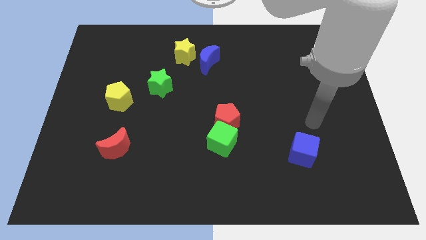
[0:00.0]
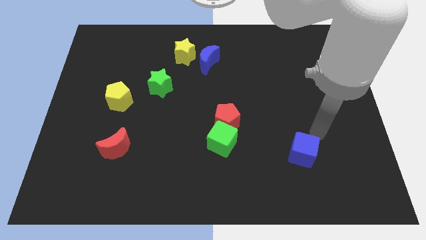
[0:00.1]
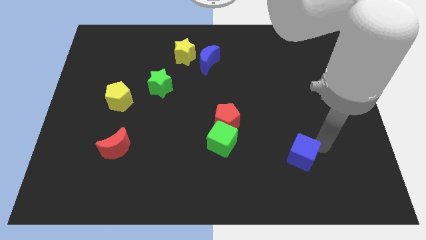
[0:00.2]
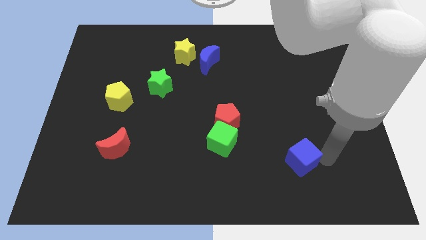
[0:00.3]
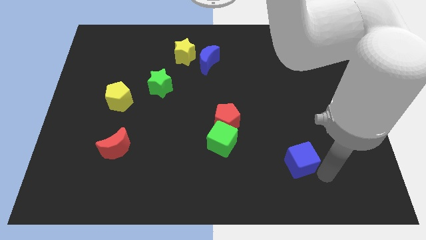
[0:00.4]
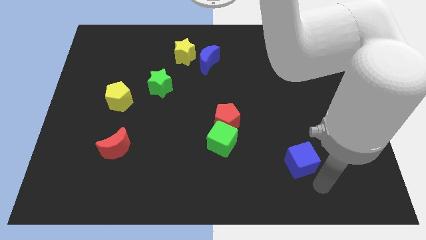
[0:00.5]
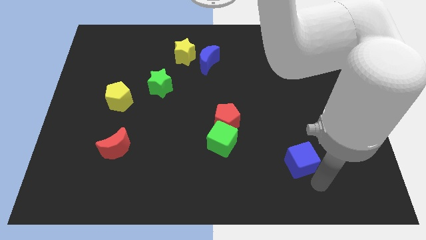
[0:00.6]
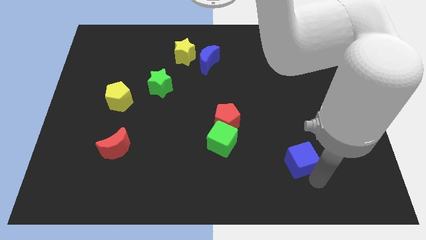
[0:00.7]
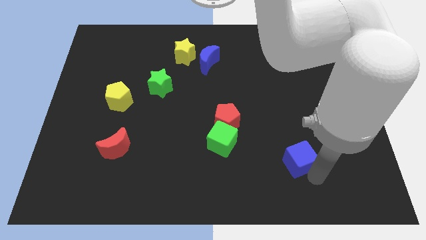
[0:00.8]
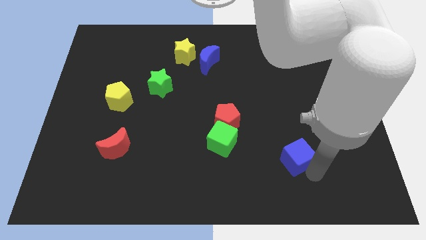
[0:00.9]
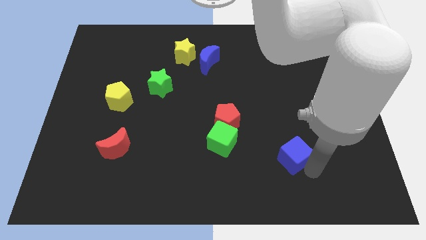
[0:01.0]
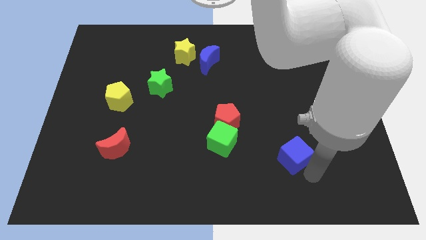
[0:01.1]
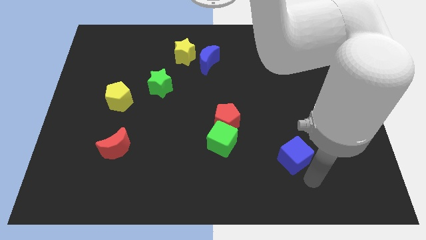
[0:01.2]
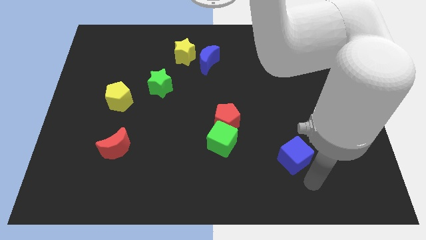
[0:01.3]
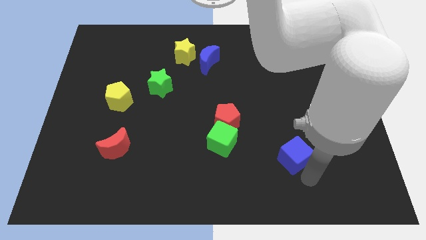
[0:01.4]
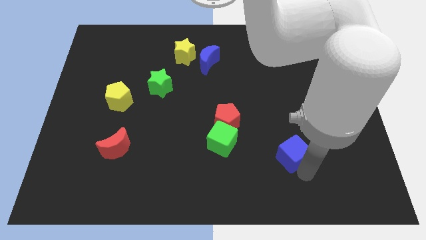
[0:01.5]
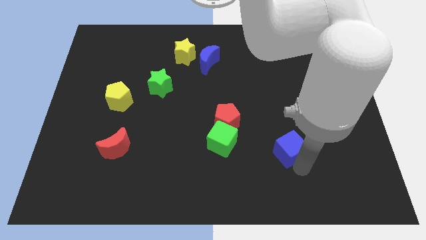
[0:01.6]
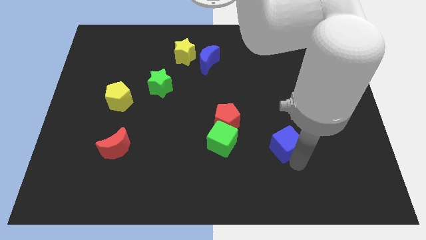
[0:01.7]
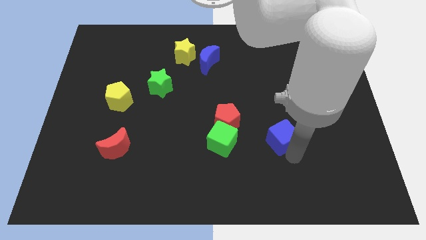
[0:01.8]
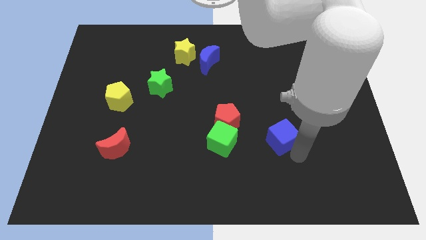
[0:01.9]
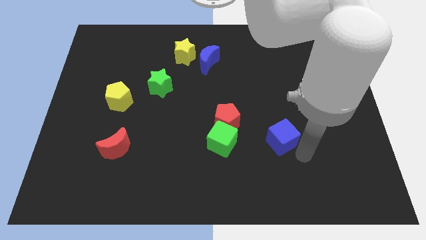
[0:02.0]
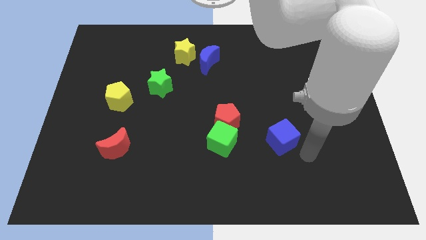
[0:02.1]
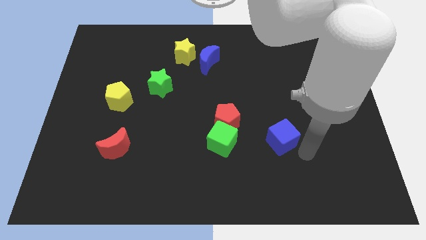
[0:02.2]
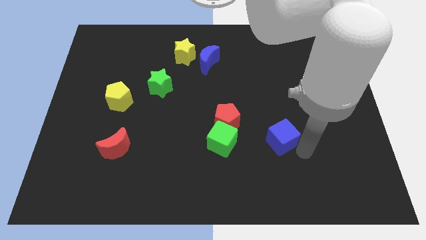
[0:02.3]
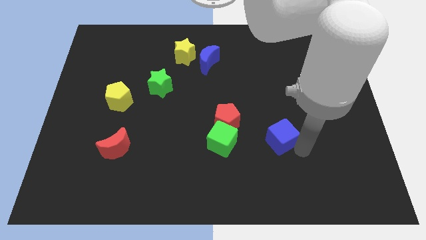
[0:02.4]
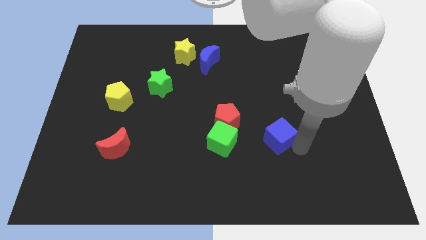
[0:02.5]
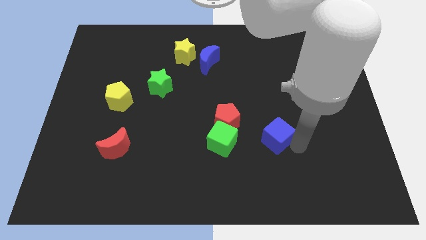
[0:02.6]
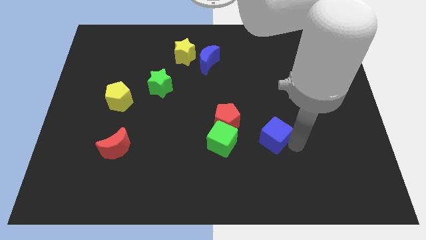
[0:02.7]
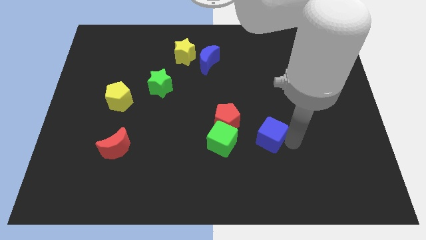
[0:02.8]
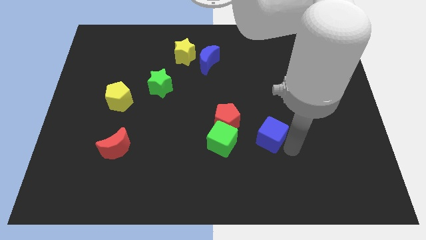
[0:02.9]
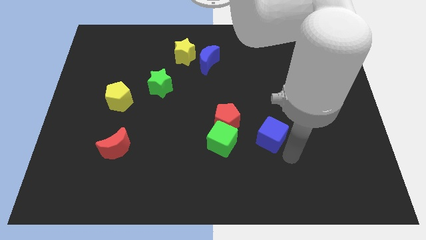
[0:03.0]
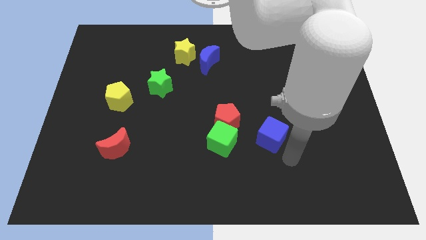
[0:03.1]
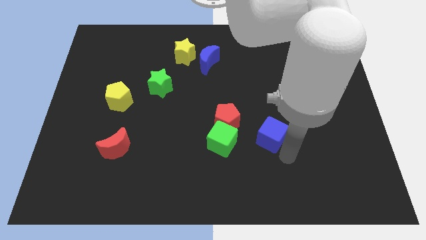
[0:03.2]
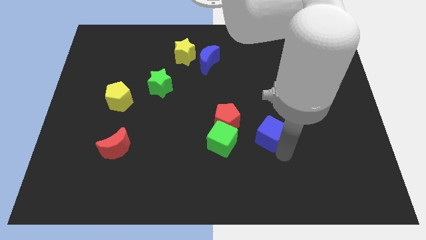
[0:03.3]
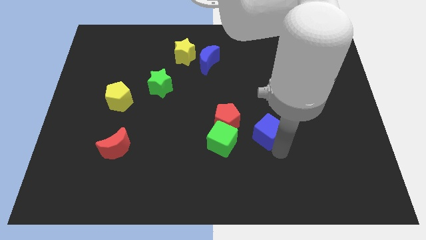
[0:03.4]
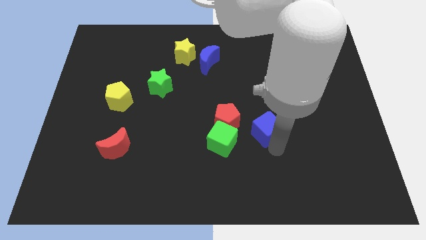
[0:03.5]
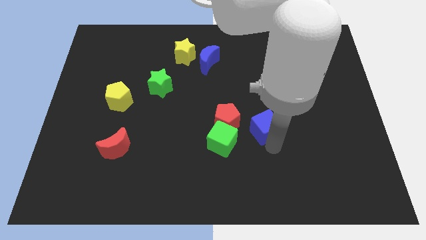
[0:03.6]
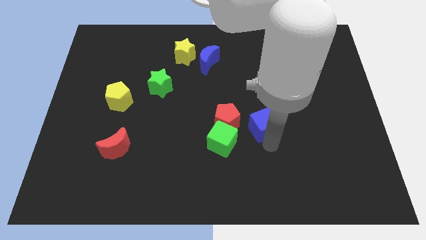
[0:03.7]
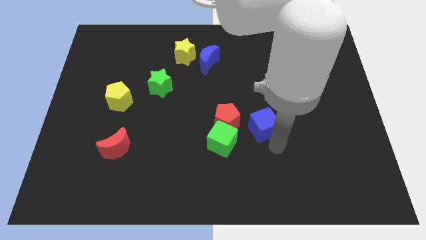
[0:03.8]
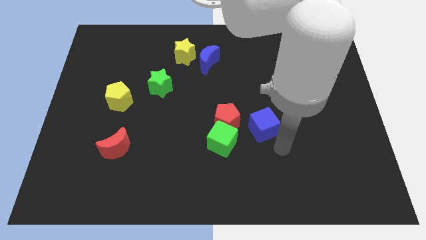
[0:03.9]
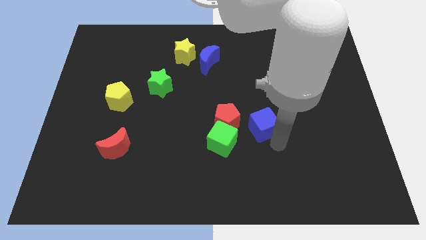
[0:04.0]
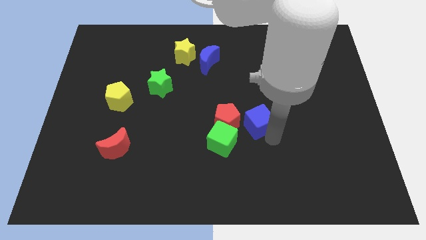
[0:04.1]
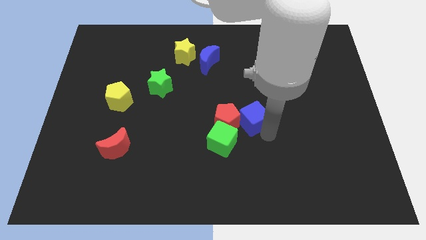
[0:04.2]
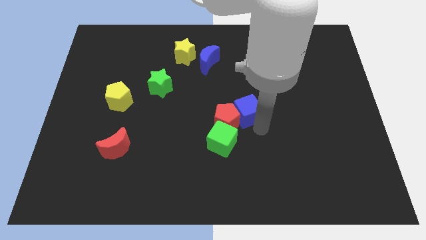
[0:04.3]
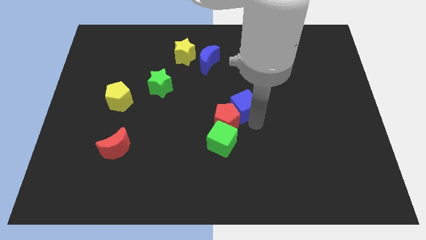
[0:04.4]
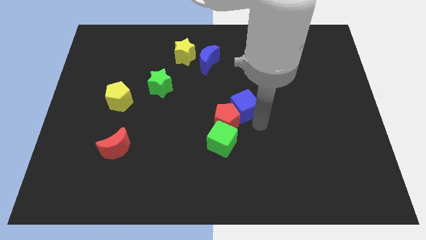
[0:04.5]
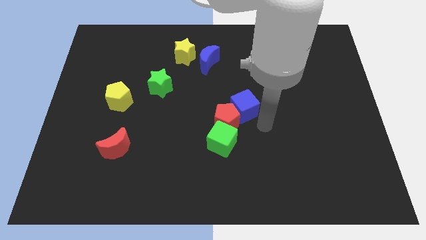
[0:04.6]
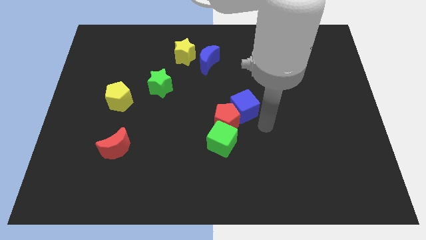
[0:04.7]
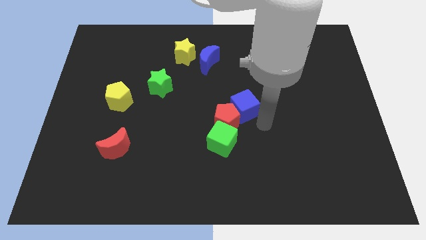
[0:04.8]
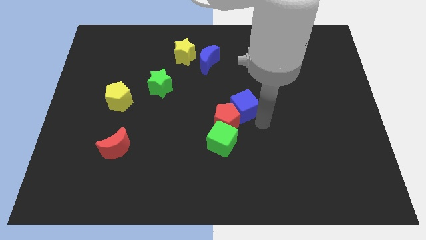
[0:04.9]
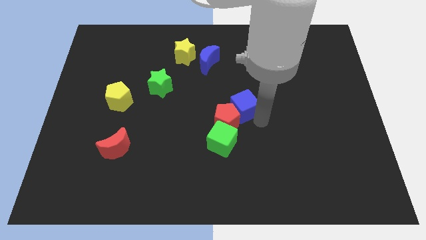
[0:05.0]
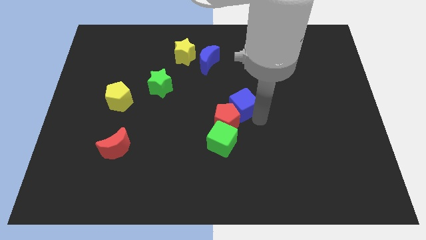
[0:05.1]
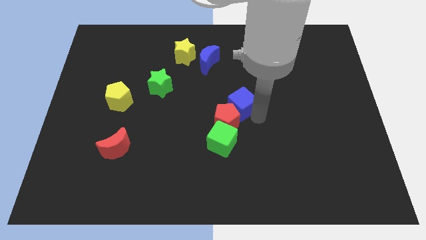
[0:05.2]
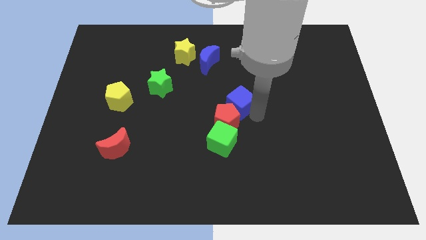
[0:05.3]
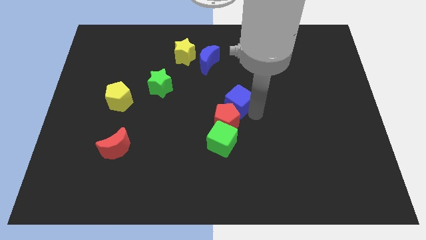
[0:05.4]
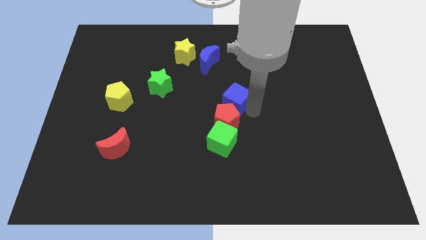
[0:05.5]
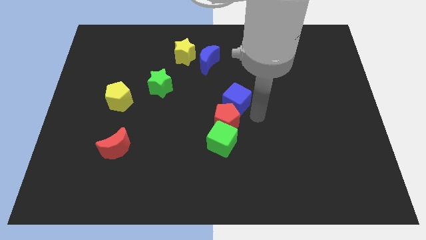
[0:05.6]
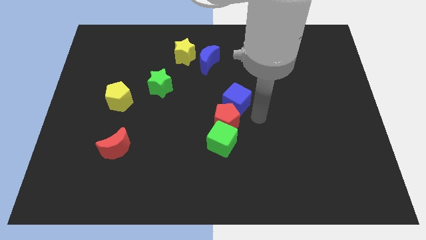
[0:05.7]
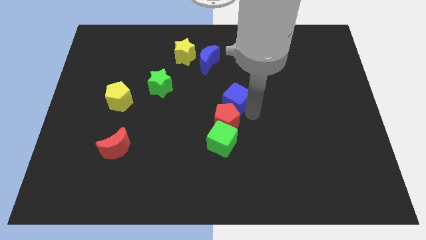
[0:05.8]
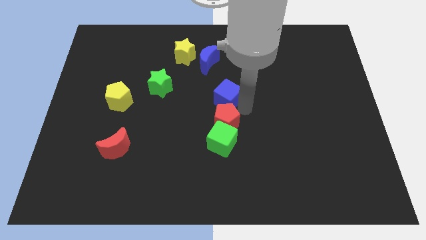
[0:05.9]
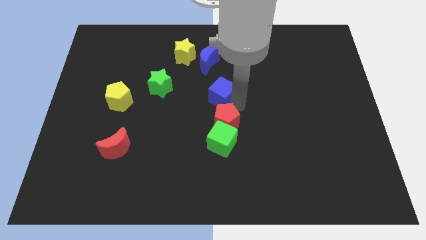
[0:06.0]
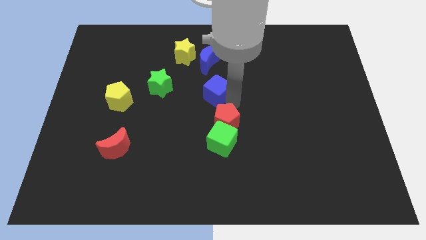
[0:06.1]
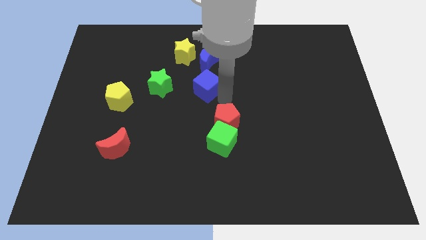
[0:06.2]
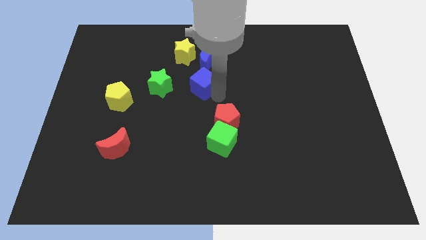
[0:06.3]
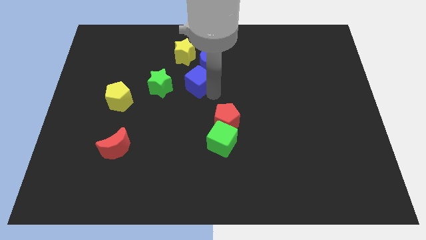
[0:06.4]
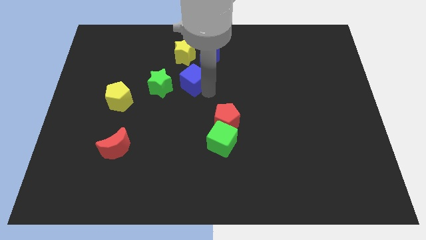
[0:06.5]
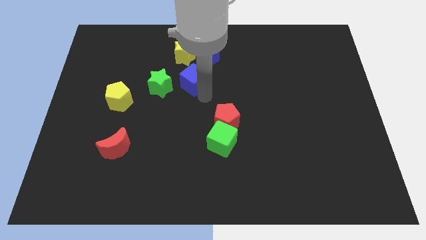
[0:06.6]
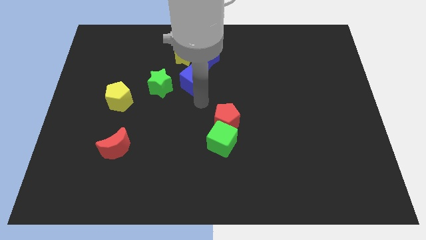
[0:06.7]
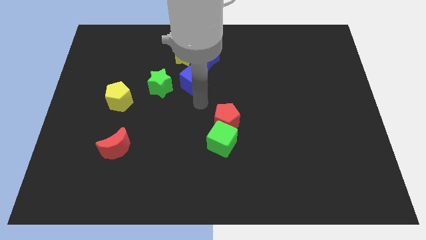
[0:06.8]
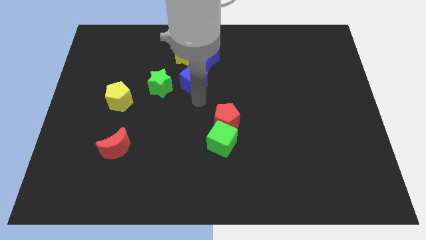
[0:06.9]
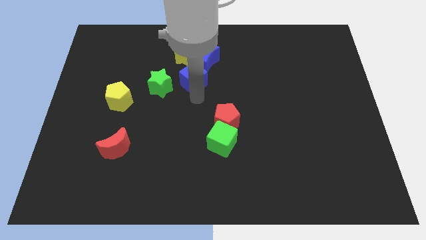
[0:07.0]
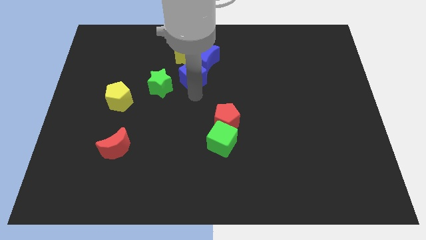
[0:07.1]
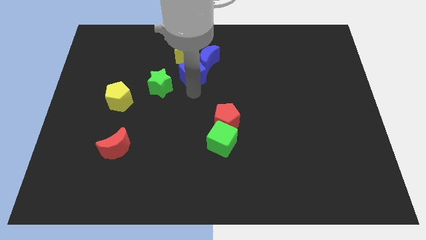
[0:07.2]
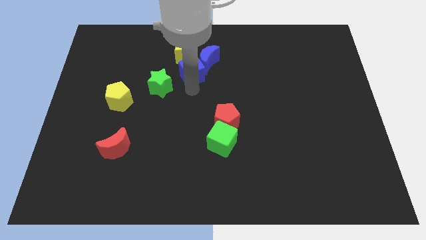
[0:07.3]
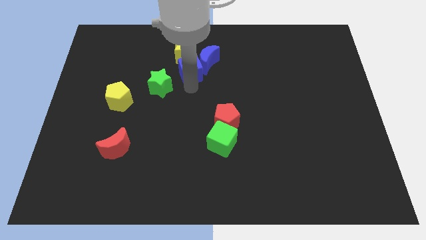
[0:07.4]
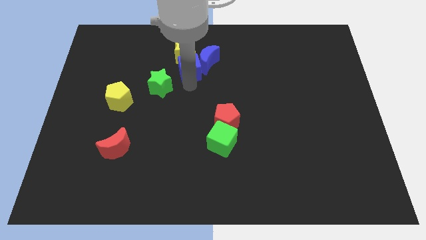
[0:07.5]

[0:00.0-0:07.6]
move the blue cube to the yellow star
